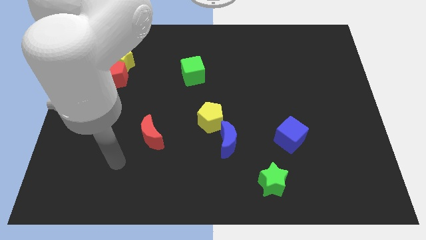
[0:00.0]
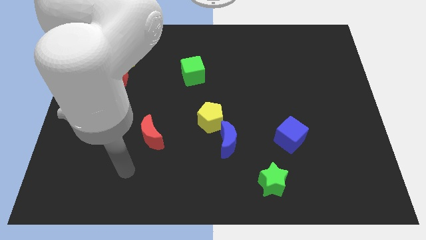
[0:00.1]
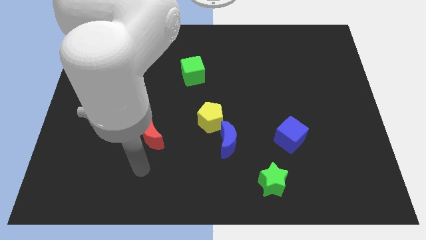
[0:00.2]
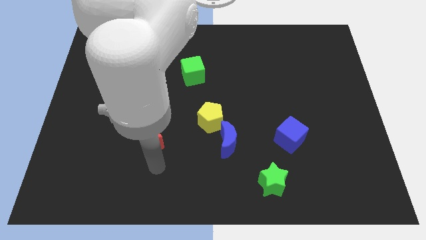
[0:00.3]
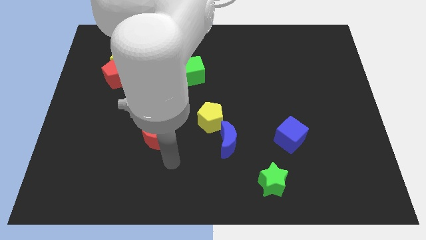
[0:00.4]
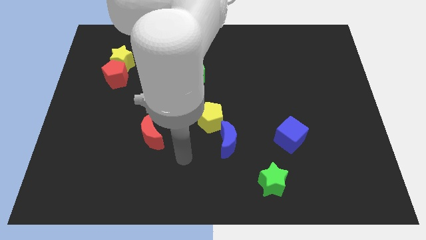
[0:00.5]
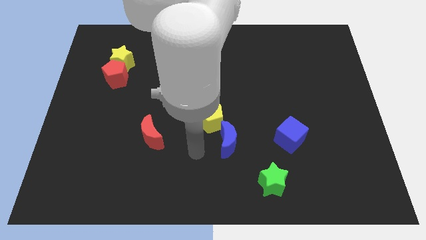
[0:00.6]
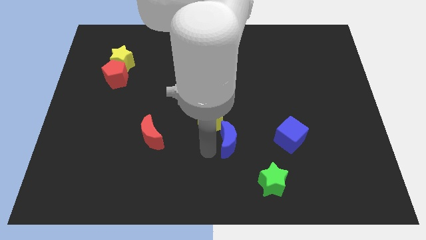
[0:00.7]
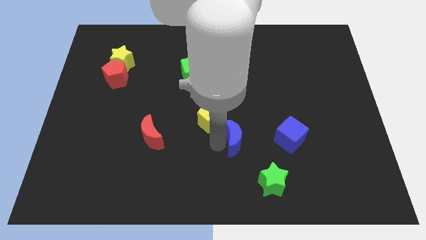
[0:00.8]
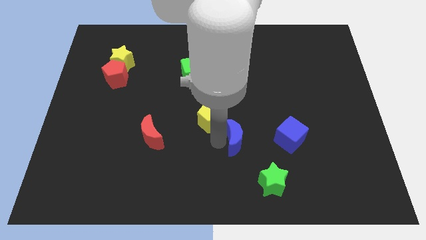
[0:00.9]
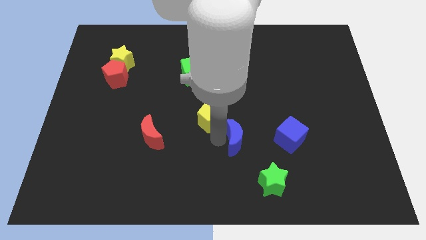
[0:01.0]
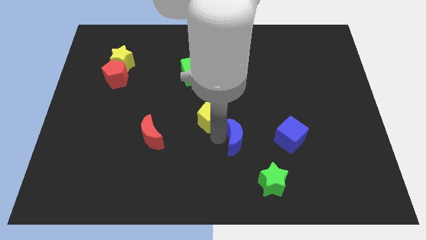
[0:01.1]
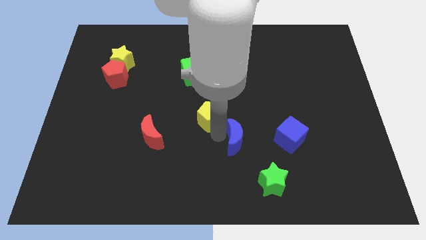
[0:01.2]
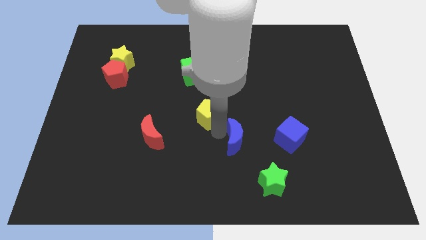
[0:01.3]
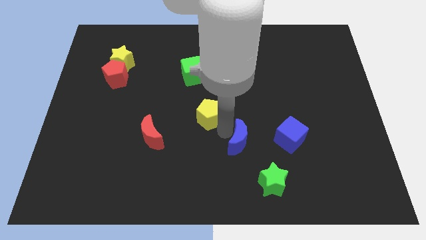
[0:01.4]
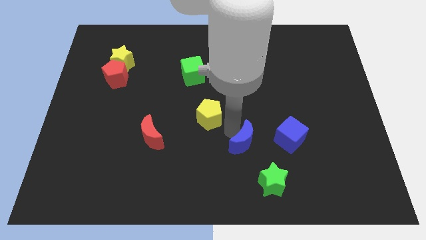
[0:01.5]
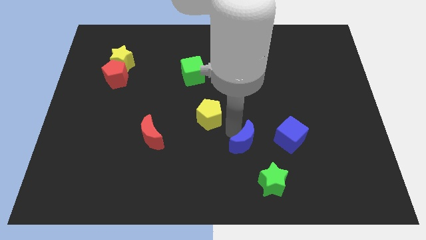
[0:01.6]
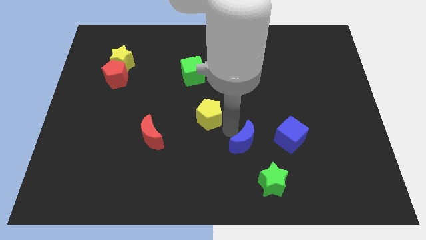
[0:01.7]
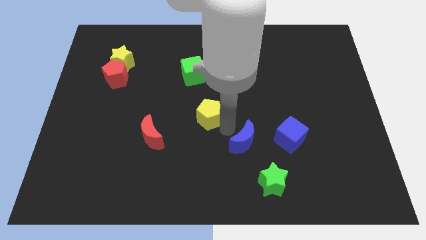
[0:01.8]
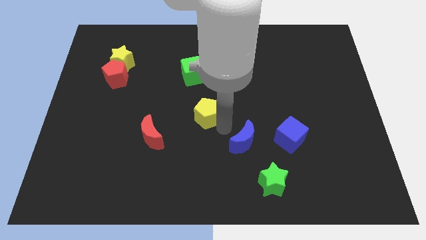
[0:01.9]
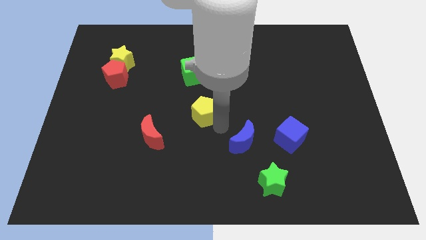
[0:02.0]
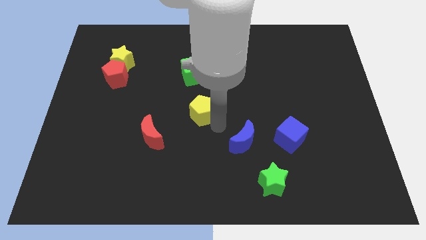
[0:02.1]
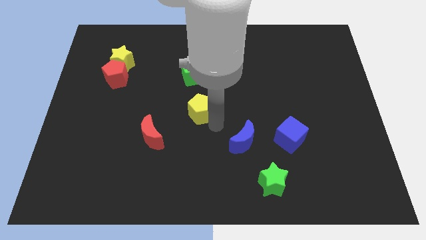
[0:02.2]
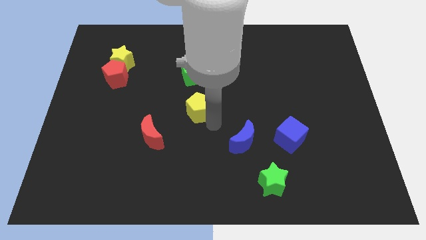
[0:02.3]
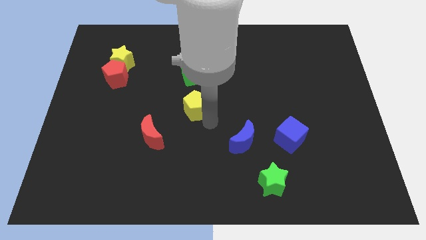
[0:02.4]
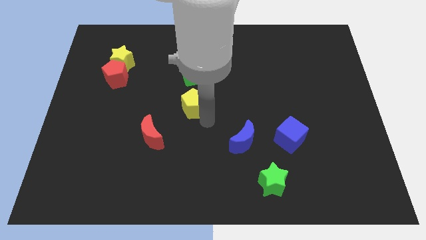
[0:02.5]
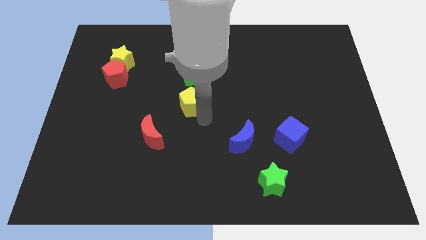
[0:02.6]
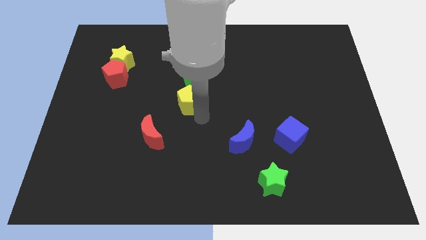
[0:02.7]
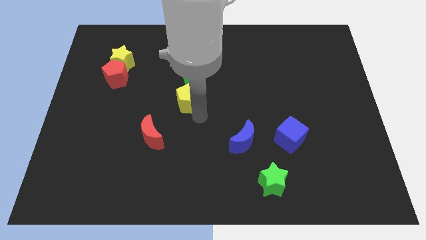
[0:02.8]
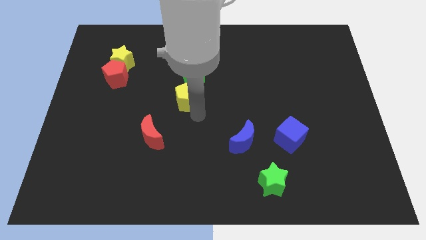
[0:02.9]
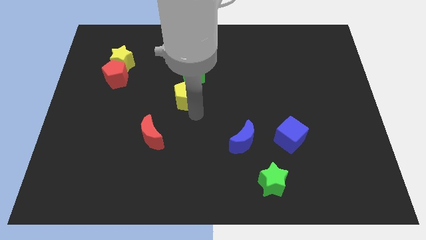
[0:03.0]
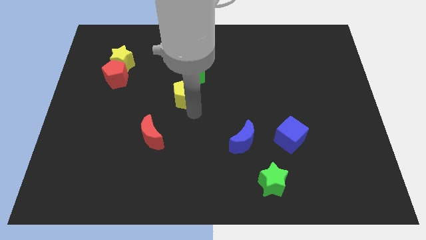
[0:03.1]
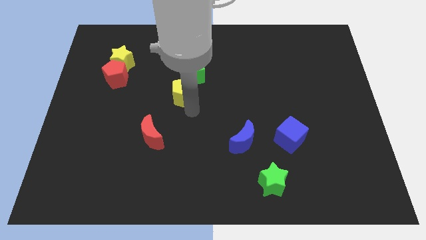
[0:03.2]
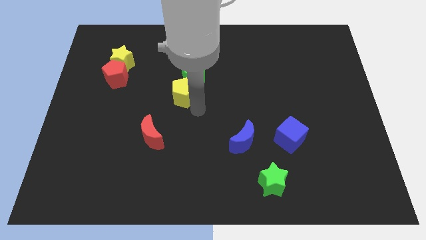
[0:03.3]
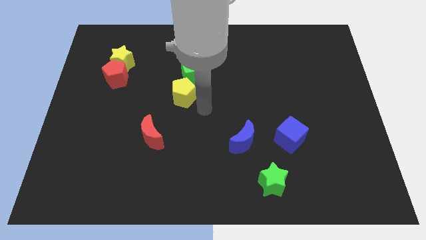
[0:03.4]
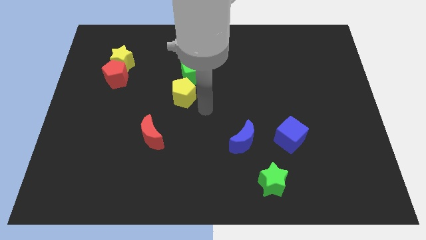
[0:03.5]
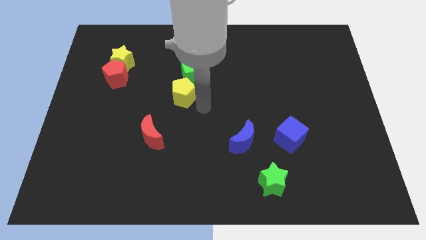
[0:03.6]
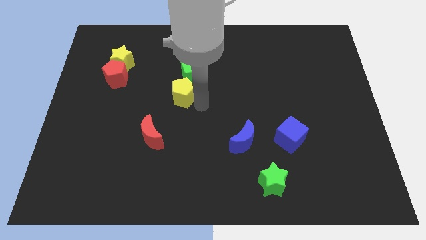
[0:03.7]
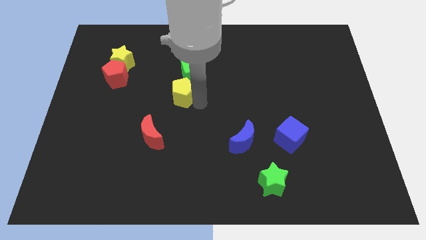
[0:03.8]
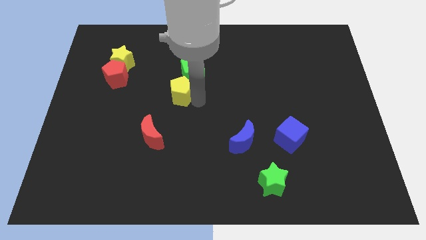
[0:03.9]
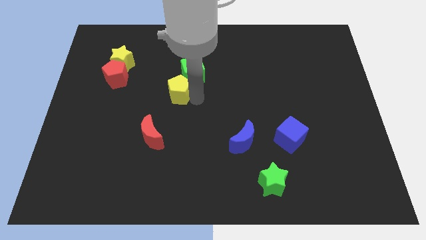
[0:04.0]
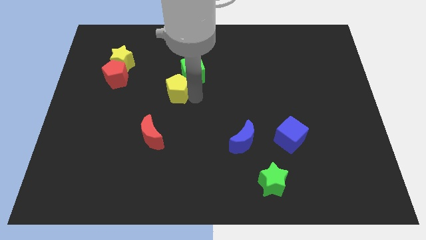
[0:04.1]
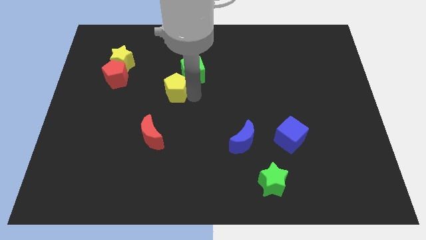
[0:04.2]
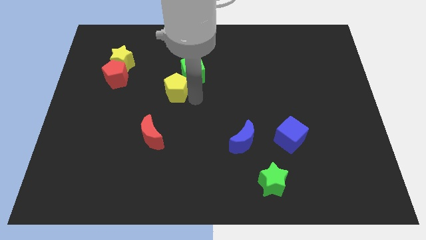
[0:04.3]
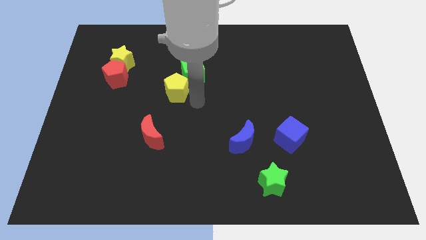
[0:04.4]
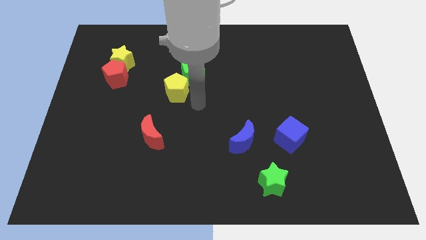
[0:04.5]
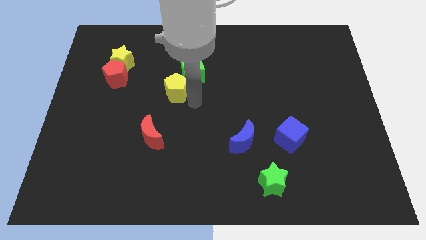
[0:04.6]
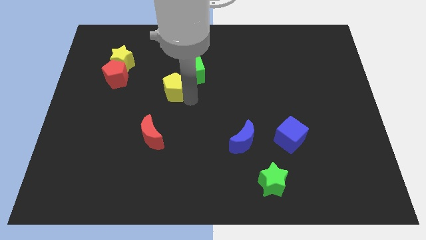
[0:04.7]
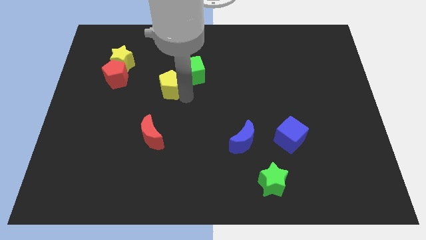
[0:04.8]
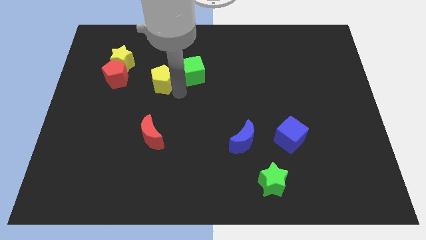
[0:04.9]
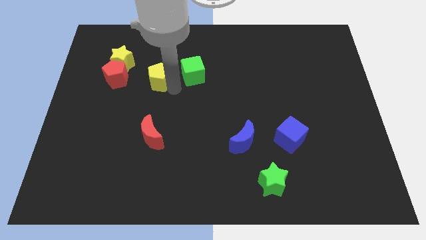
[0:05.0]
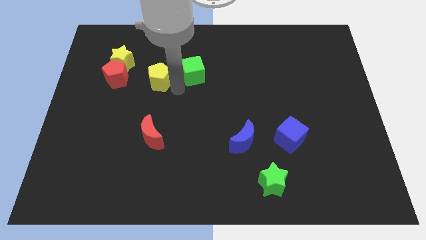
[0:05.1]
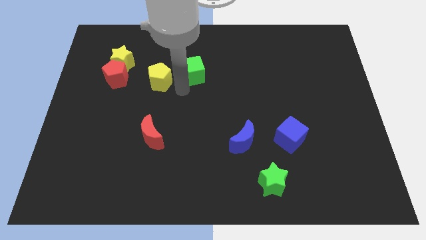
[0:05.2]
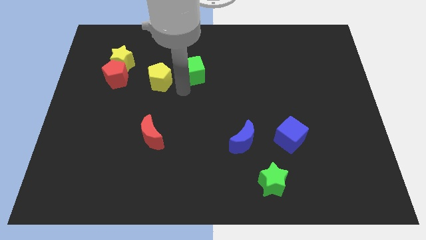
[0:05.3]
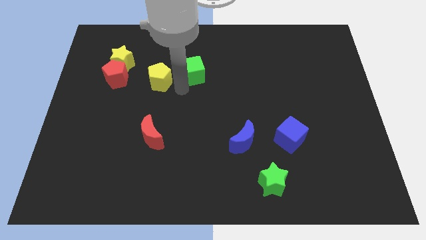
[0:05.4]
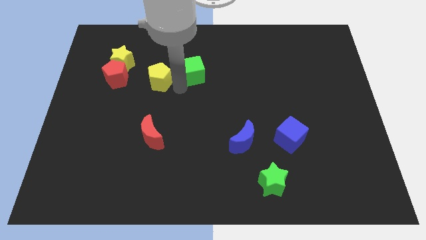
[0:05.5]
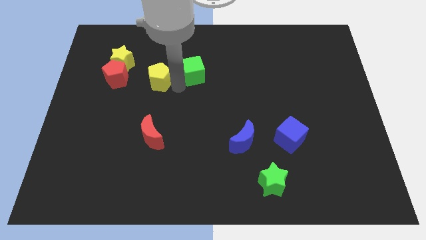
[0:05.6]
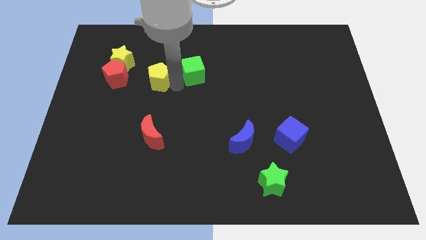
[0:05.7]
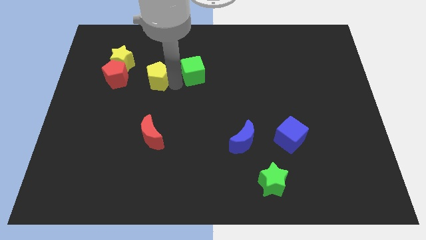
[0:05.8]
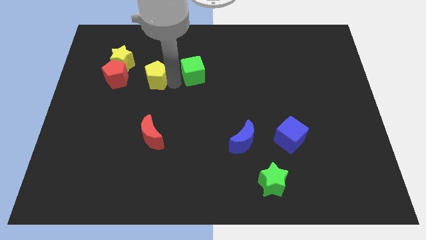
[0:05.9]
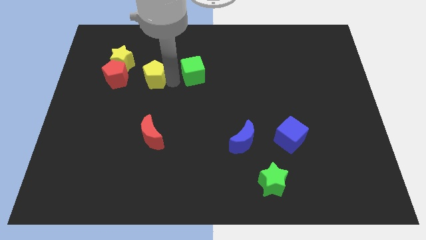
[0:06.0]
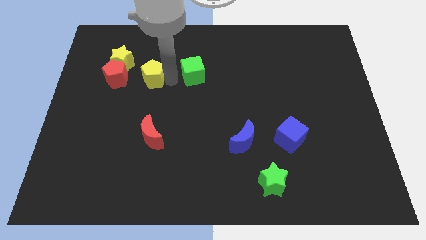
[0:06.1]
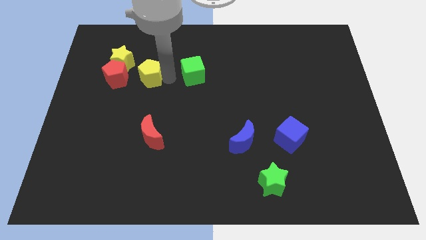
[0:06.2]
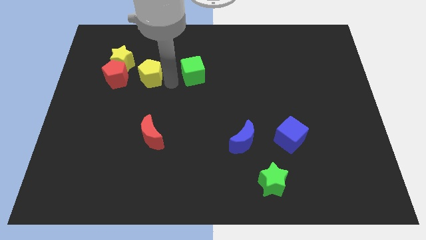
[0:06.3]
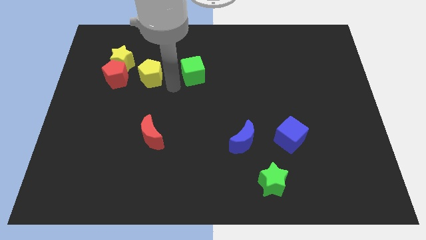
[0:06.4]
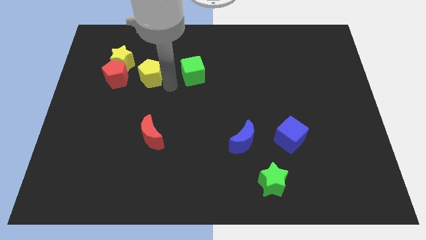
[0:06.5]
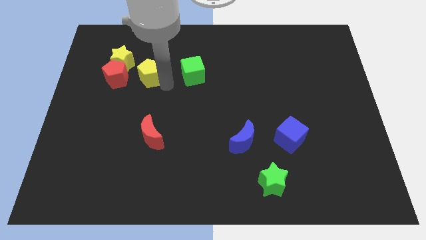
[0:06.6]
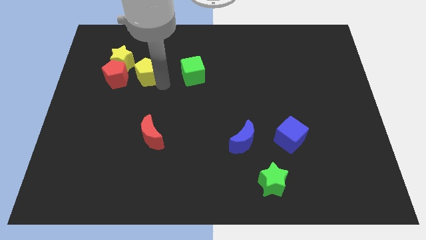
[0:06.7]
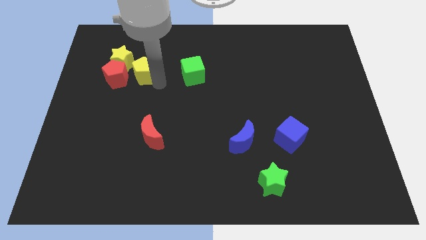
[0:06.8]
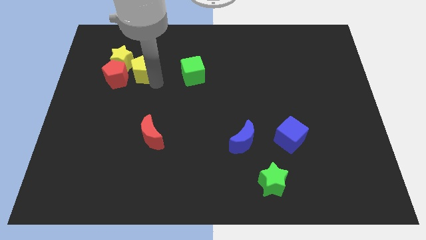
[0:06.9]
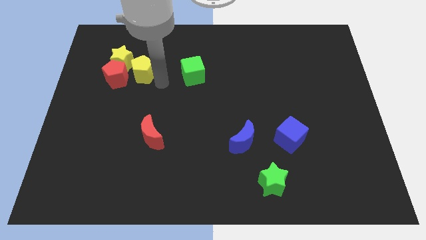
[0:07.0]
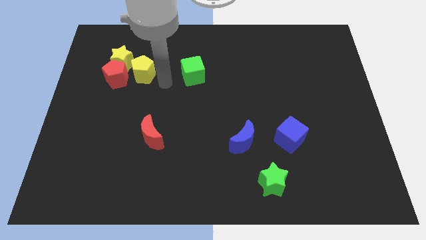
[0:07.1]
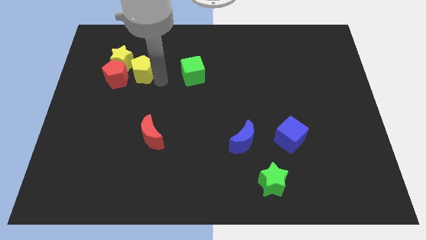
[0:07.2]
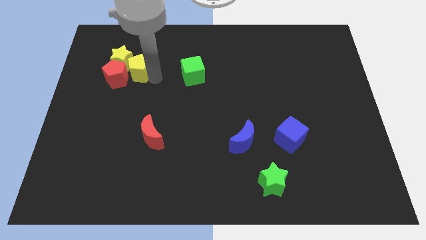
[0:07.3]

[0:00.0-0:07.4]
slide the yellow pentagon next to the yellow star
